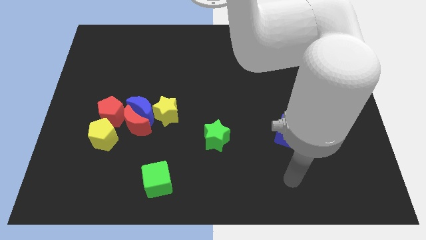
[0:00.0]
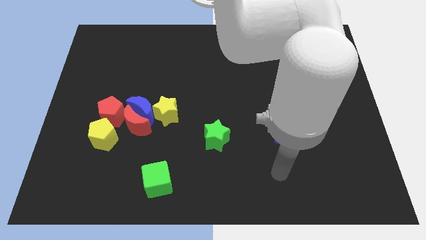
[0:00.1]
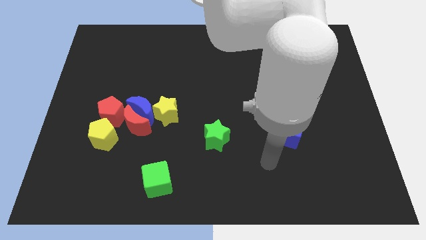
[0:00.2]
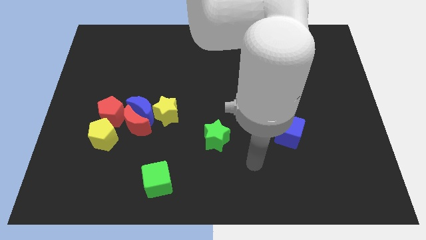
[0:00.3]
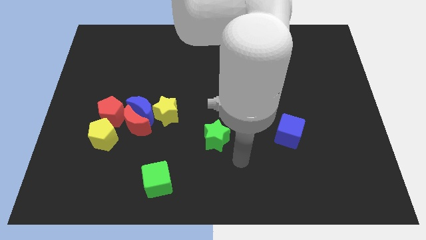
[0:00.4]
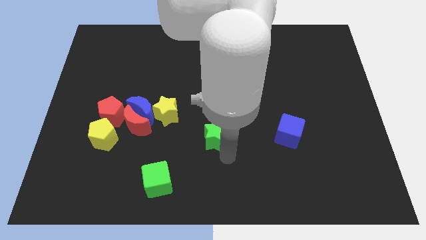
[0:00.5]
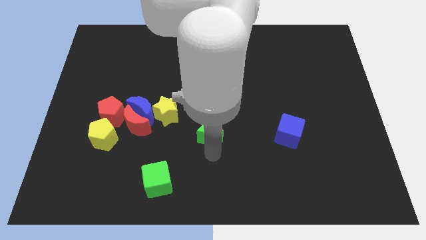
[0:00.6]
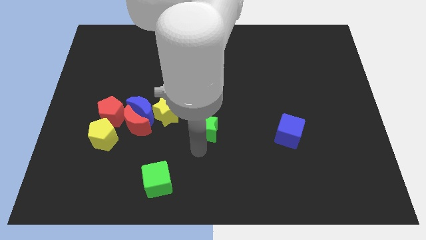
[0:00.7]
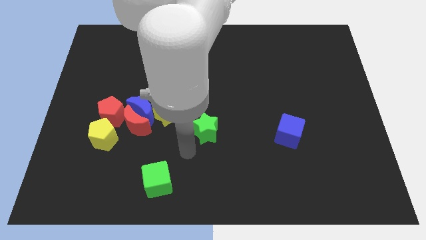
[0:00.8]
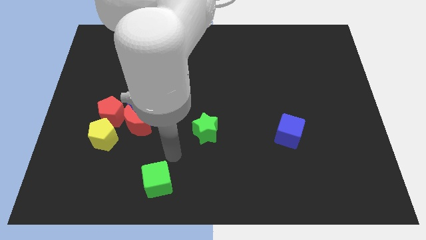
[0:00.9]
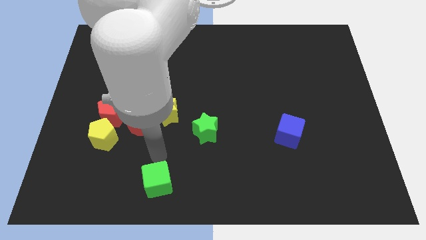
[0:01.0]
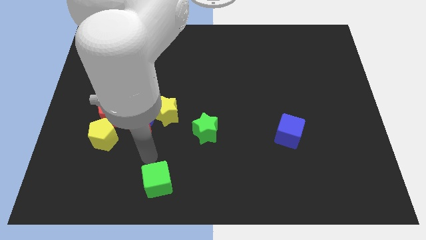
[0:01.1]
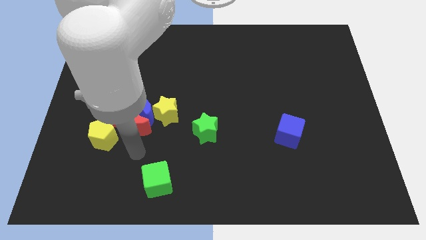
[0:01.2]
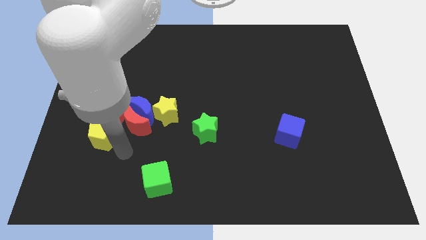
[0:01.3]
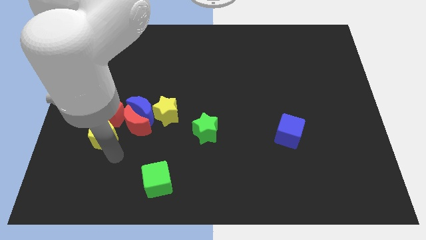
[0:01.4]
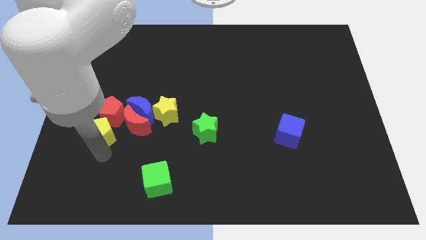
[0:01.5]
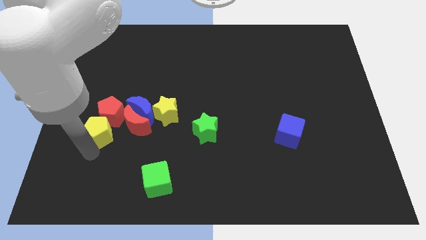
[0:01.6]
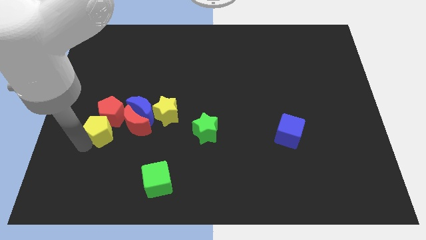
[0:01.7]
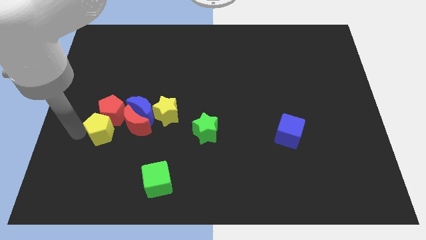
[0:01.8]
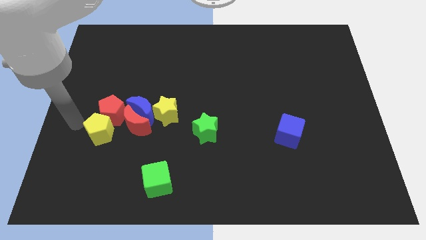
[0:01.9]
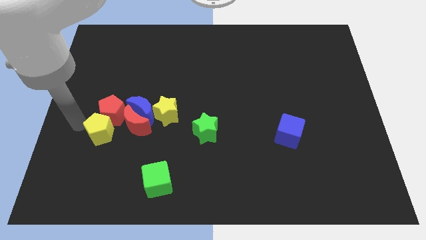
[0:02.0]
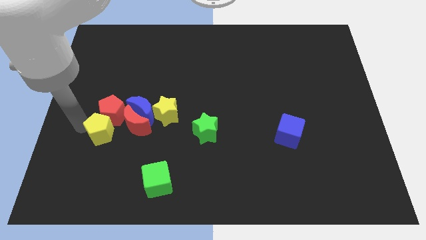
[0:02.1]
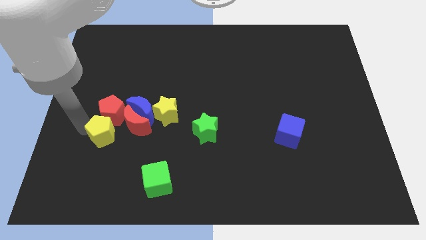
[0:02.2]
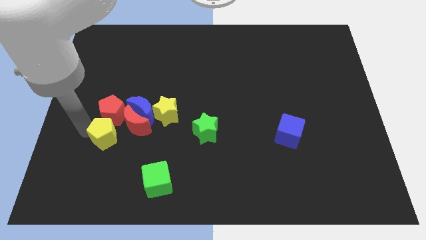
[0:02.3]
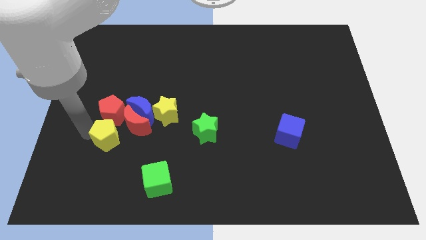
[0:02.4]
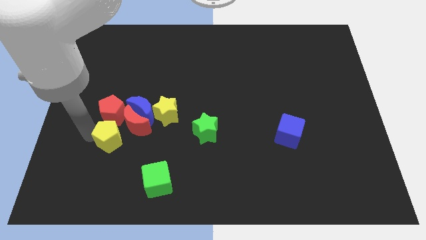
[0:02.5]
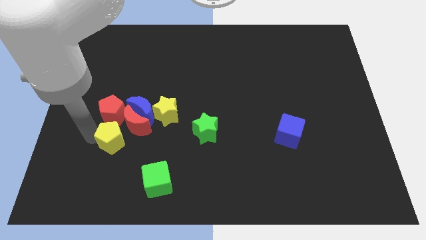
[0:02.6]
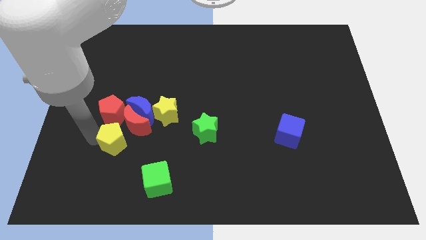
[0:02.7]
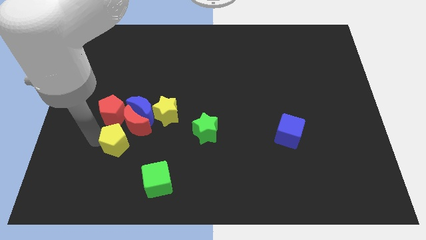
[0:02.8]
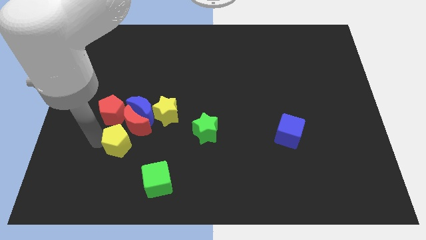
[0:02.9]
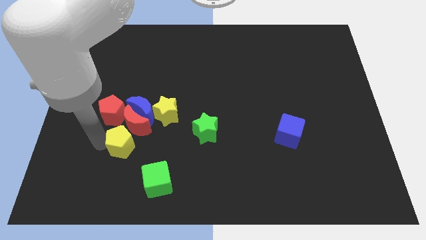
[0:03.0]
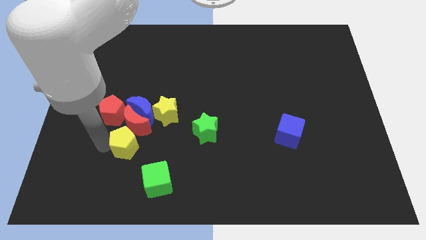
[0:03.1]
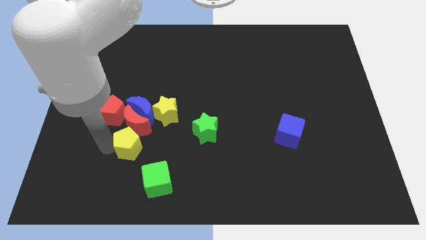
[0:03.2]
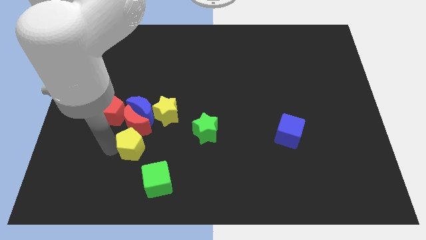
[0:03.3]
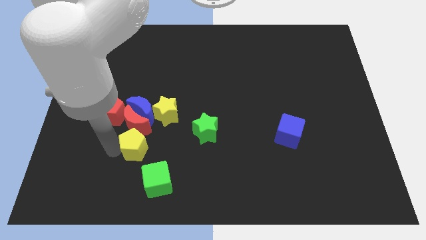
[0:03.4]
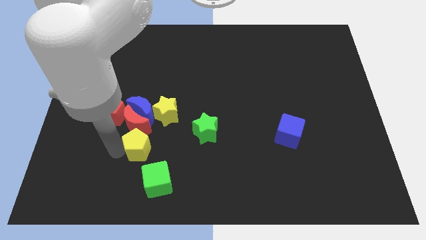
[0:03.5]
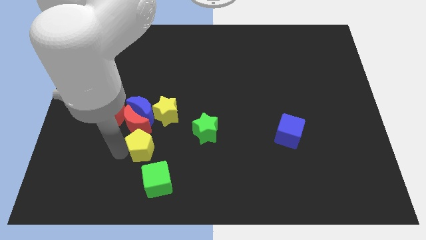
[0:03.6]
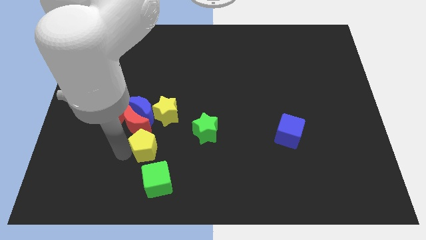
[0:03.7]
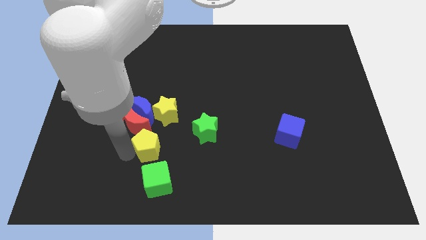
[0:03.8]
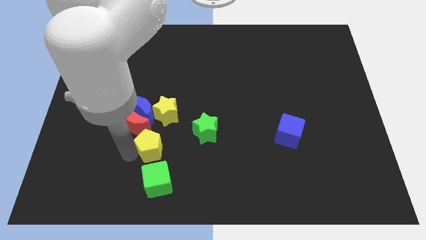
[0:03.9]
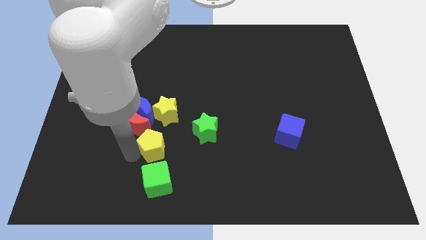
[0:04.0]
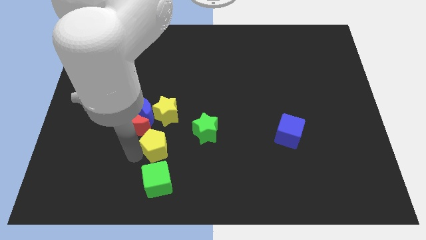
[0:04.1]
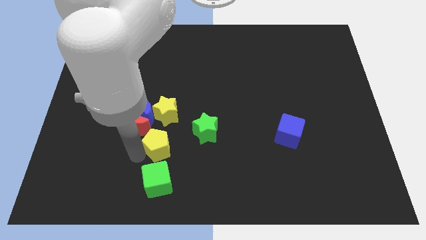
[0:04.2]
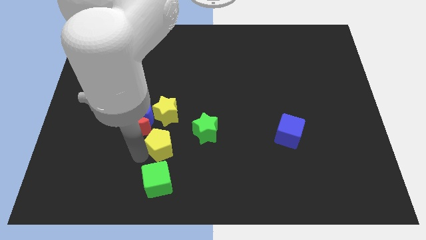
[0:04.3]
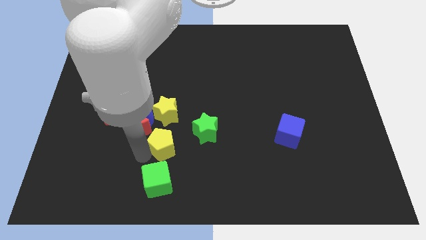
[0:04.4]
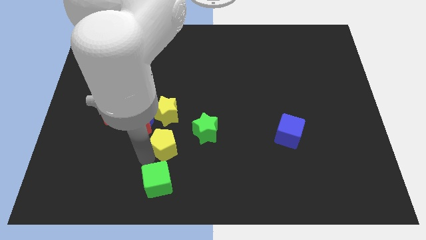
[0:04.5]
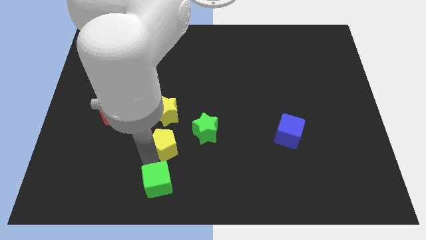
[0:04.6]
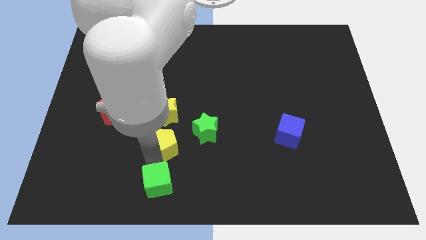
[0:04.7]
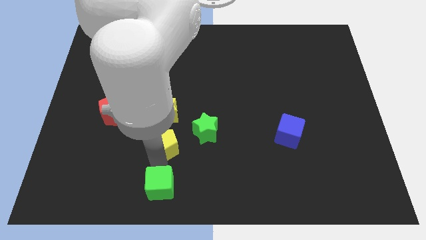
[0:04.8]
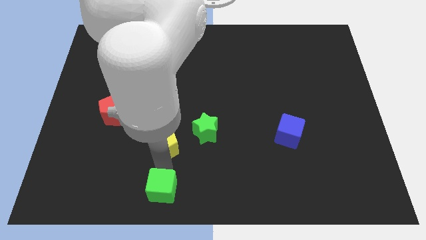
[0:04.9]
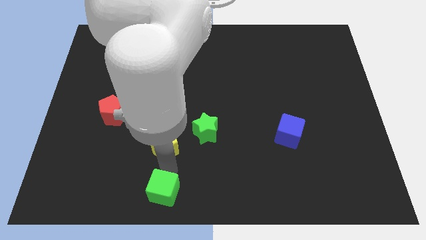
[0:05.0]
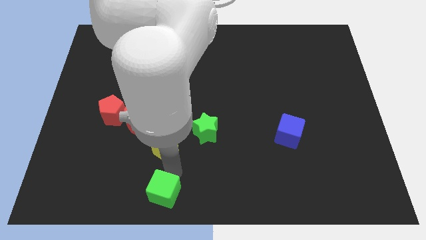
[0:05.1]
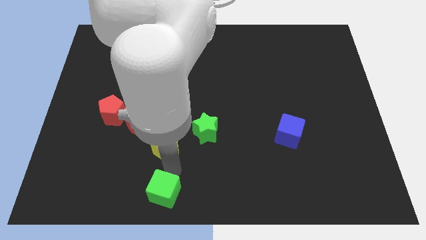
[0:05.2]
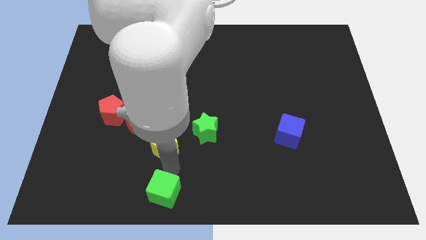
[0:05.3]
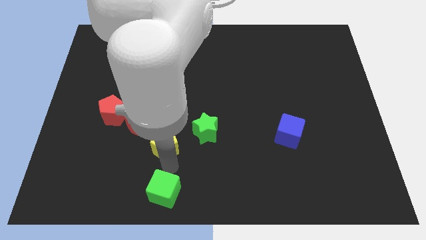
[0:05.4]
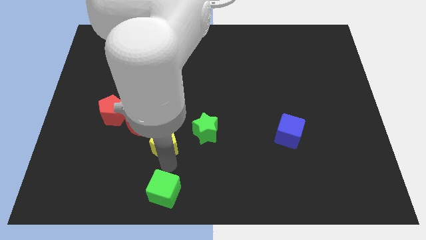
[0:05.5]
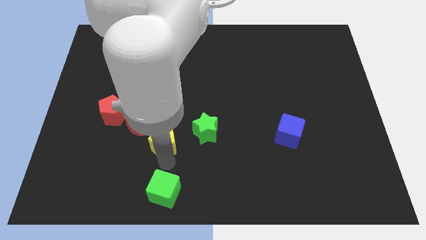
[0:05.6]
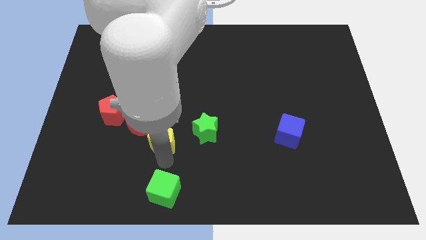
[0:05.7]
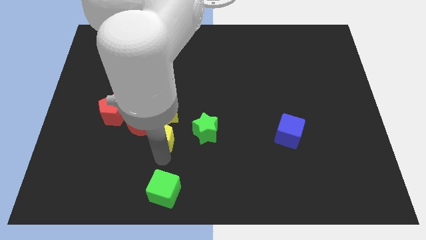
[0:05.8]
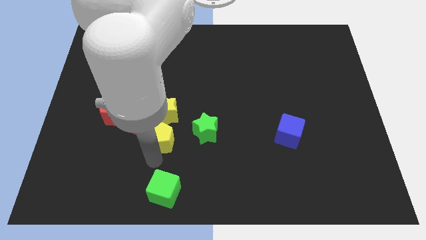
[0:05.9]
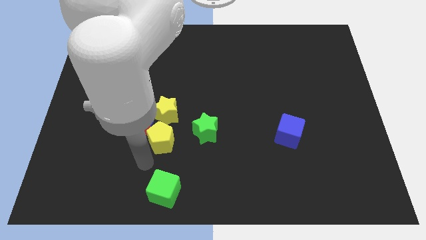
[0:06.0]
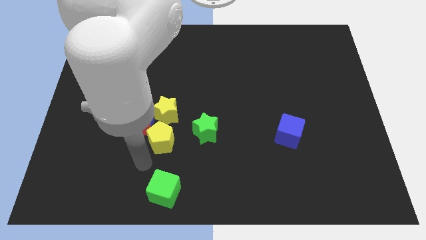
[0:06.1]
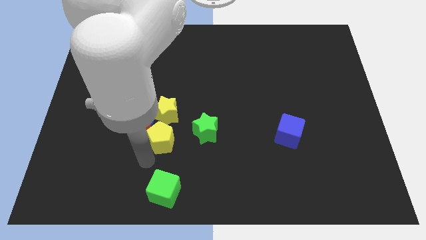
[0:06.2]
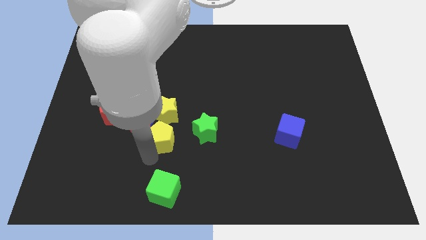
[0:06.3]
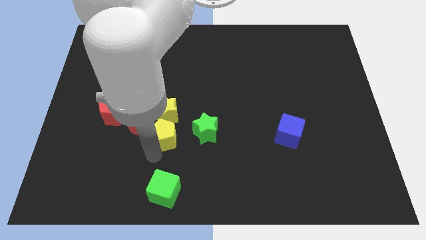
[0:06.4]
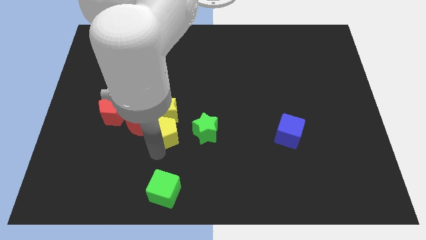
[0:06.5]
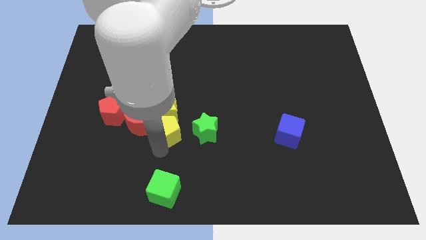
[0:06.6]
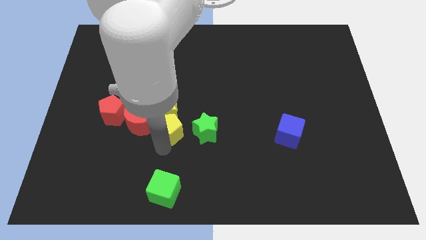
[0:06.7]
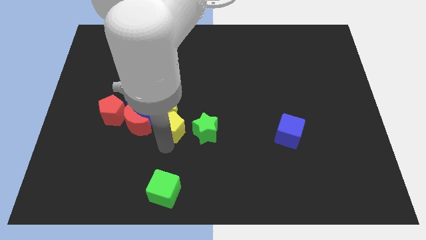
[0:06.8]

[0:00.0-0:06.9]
slide the yellow pentagon to the top left side of the green star

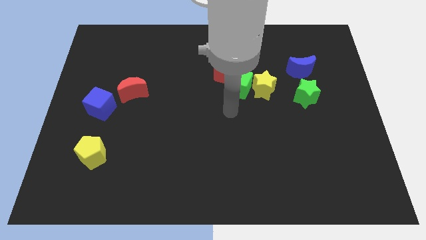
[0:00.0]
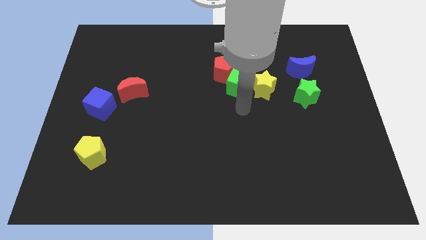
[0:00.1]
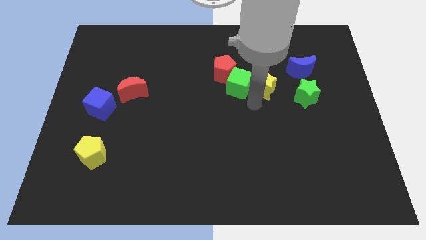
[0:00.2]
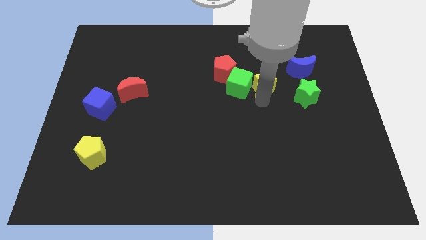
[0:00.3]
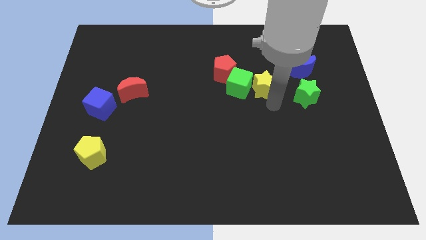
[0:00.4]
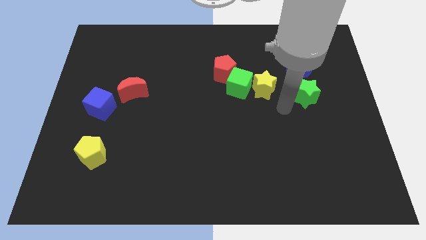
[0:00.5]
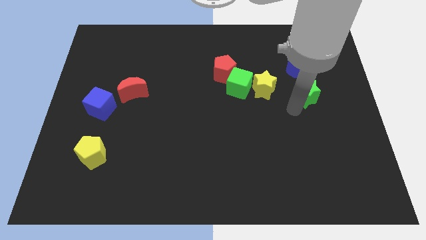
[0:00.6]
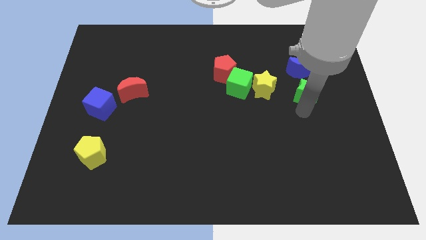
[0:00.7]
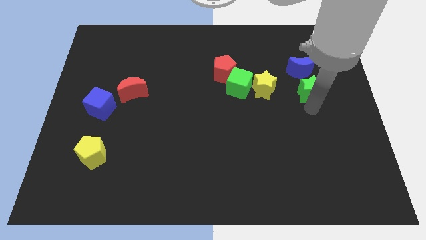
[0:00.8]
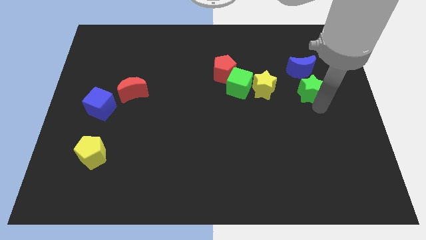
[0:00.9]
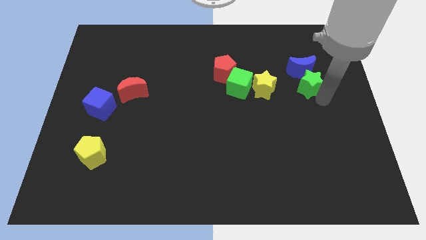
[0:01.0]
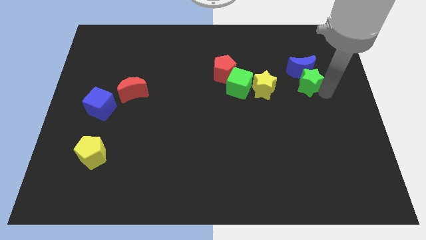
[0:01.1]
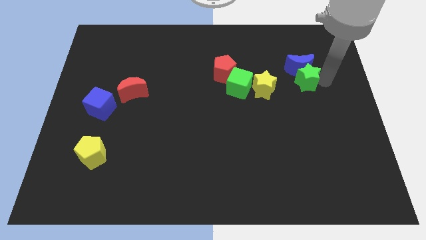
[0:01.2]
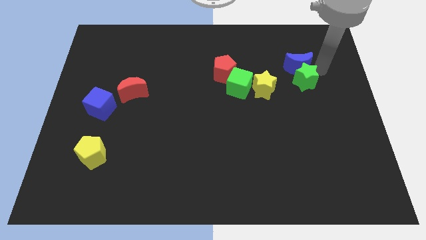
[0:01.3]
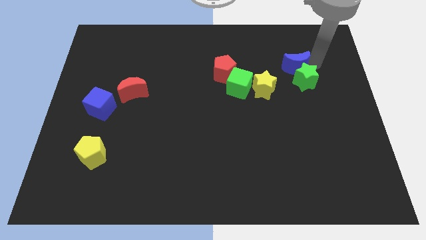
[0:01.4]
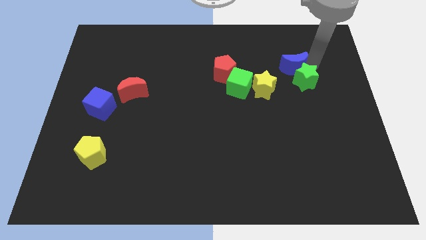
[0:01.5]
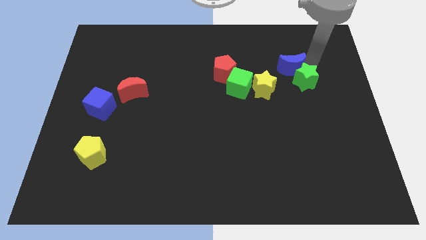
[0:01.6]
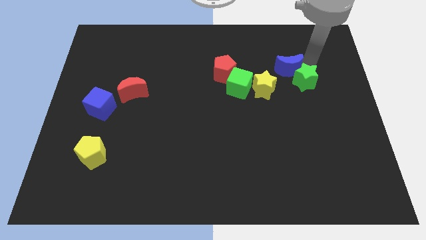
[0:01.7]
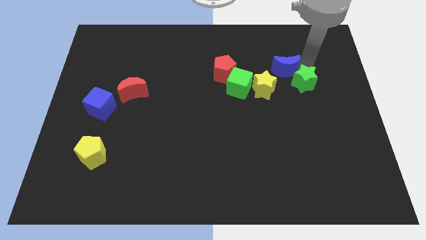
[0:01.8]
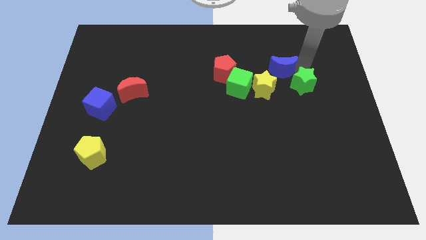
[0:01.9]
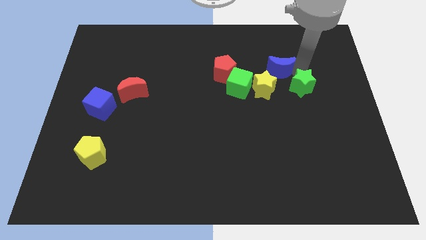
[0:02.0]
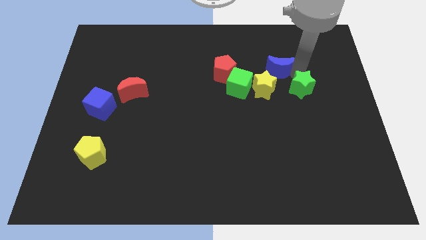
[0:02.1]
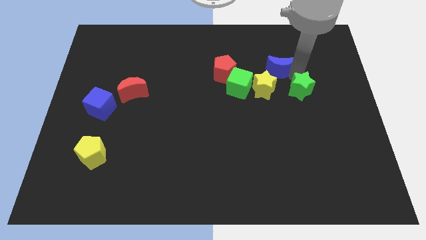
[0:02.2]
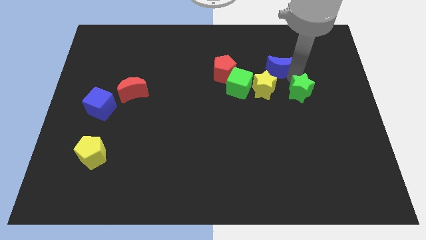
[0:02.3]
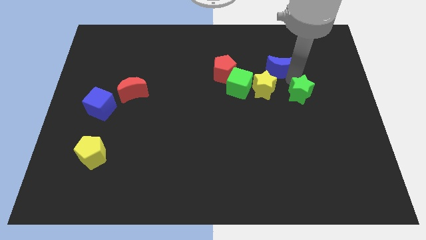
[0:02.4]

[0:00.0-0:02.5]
push the green star diagonally down and to the right of the yellow star
